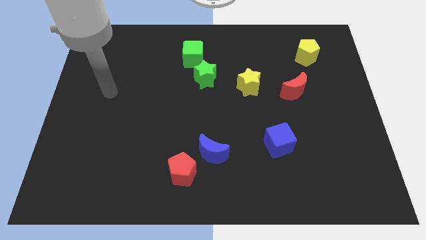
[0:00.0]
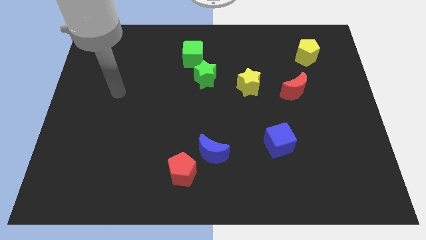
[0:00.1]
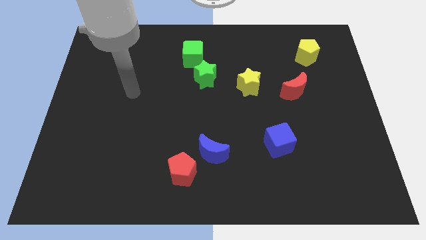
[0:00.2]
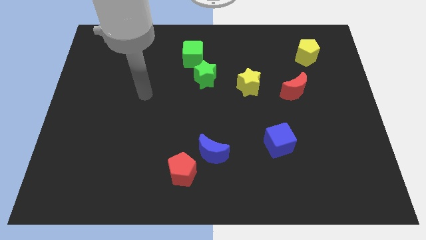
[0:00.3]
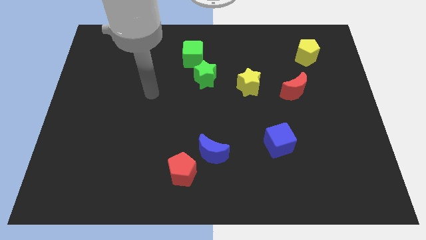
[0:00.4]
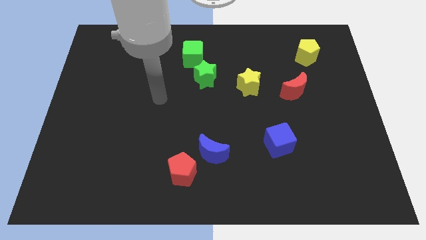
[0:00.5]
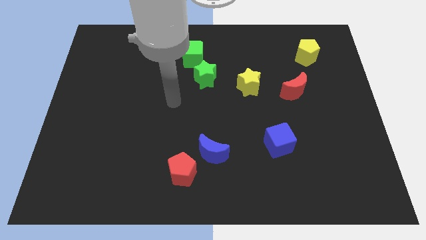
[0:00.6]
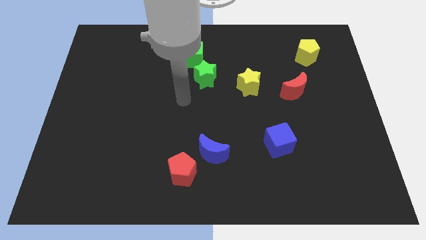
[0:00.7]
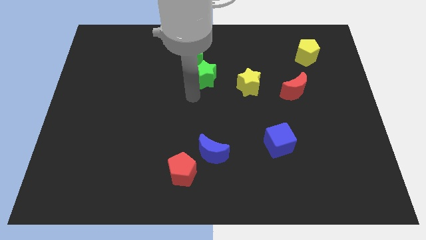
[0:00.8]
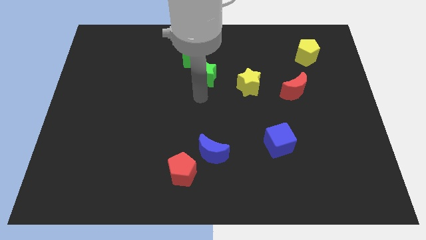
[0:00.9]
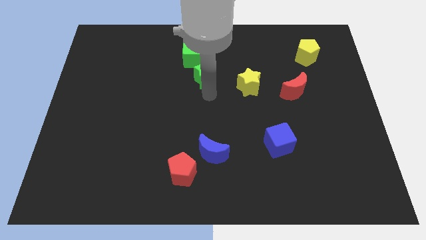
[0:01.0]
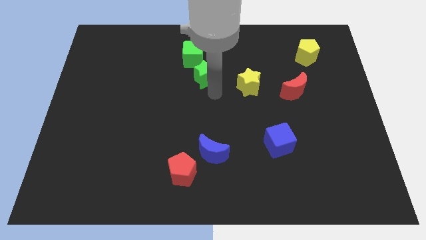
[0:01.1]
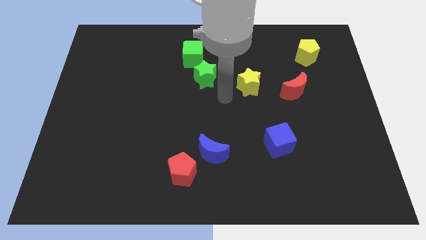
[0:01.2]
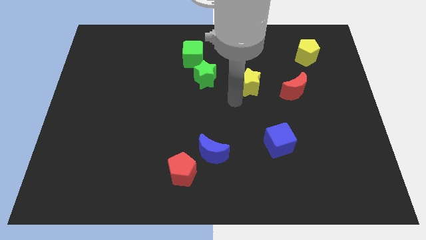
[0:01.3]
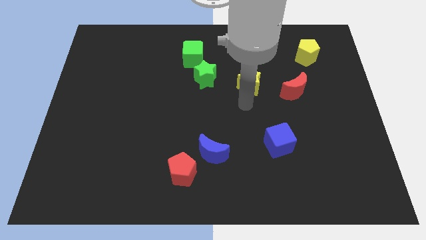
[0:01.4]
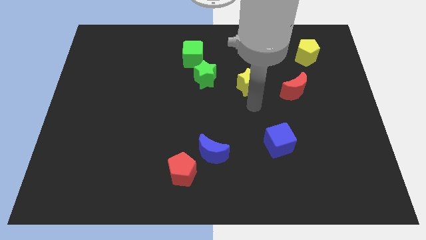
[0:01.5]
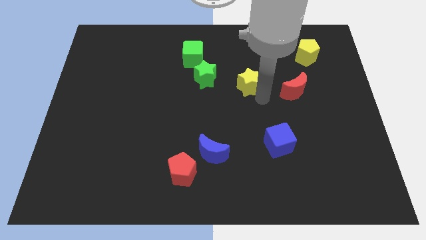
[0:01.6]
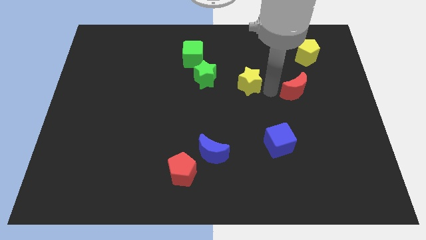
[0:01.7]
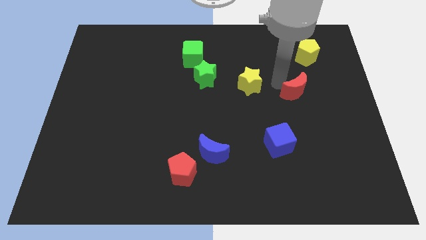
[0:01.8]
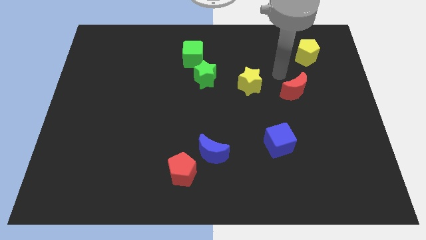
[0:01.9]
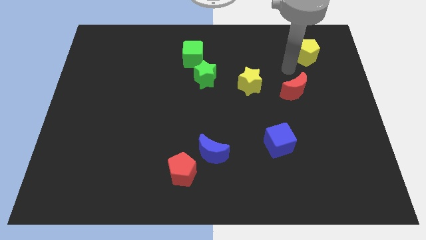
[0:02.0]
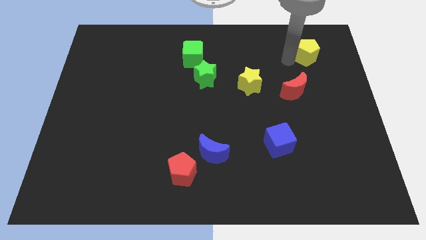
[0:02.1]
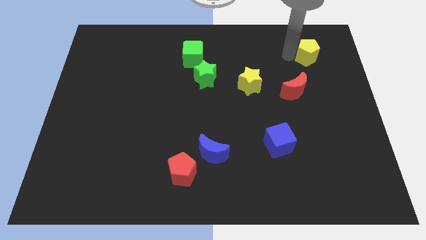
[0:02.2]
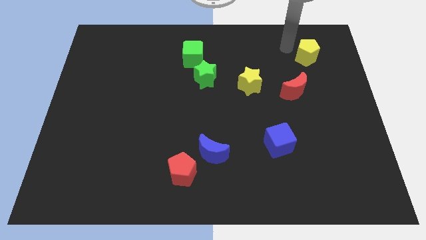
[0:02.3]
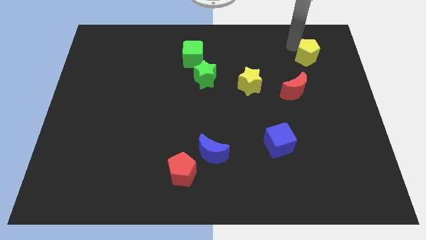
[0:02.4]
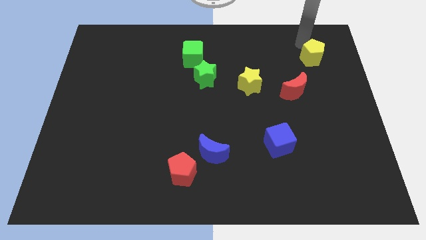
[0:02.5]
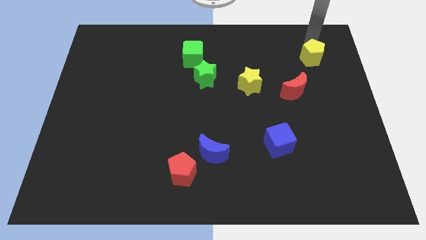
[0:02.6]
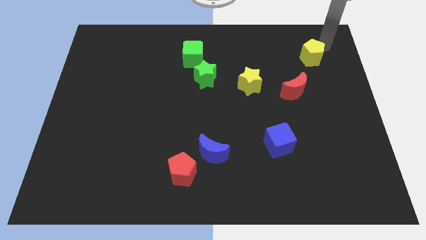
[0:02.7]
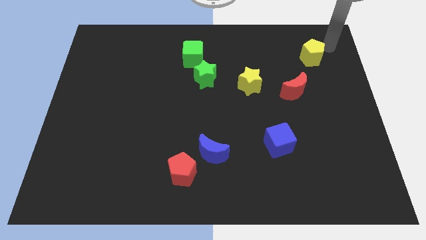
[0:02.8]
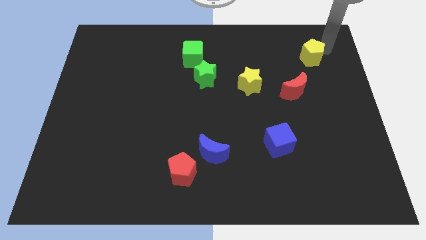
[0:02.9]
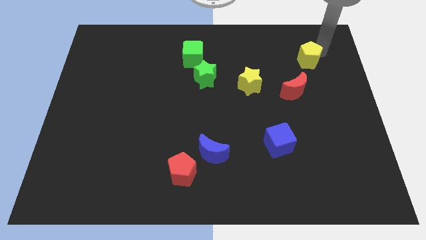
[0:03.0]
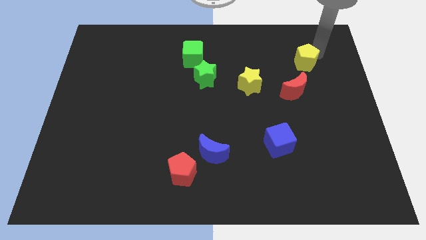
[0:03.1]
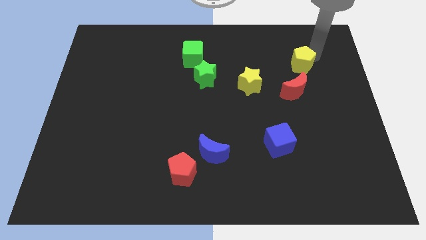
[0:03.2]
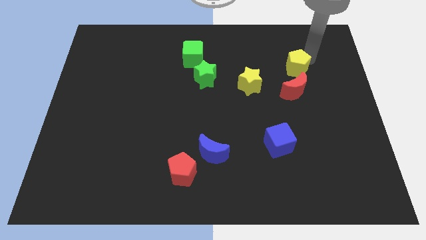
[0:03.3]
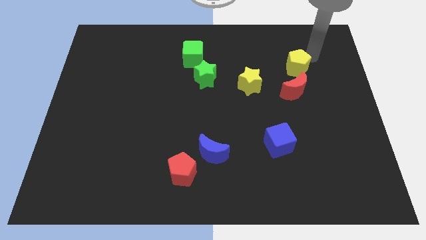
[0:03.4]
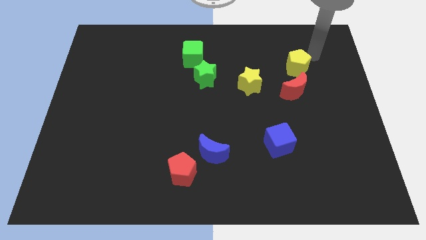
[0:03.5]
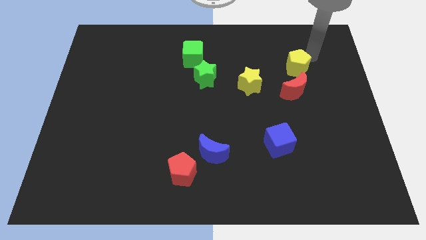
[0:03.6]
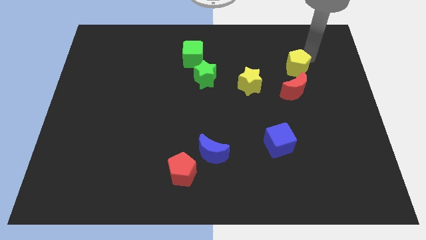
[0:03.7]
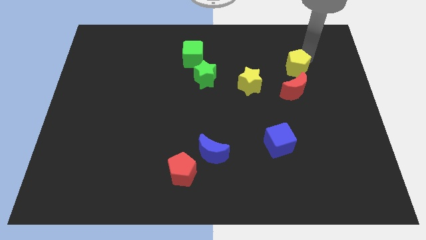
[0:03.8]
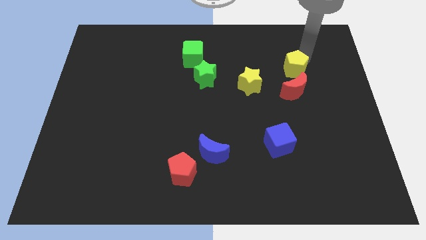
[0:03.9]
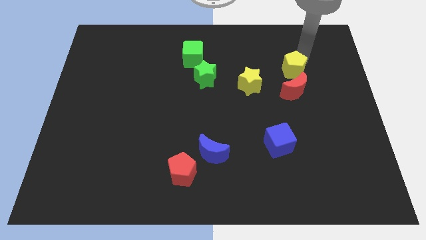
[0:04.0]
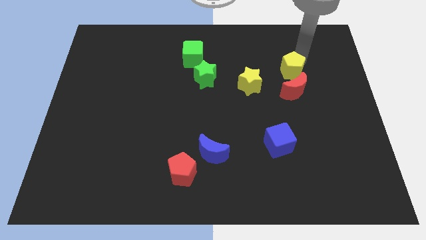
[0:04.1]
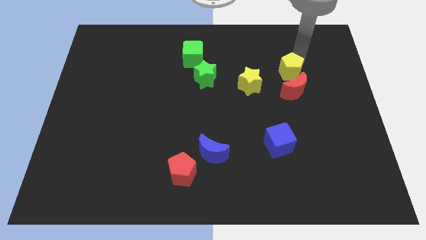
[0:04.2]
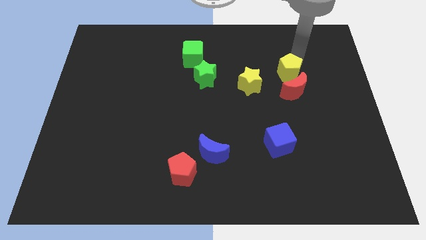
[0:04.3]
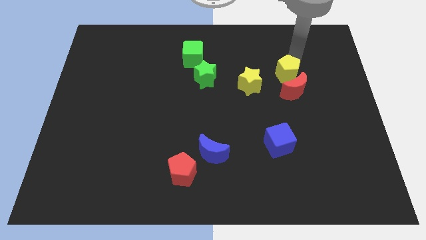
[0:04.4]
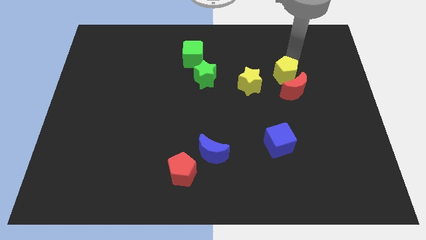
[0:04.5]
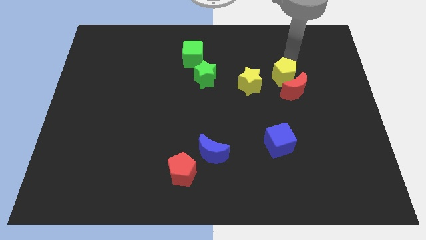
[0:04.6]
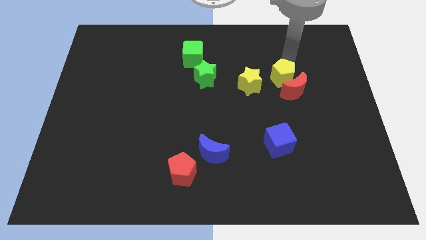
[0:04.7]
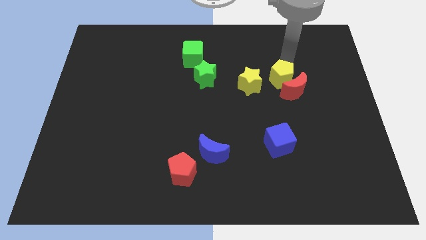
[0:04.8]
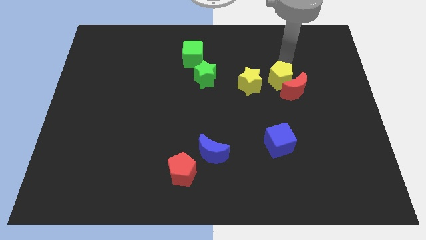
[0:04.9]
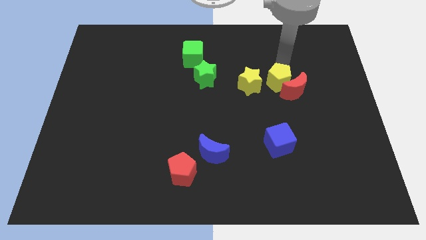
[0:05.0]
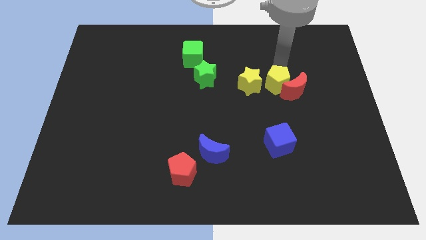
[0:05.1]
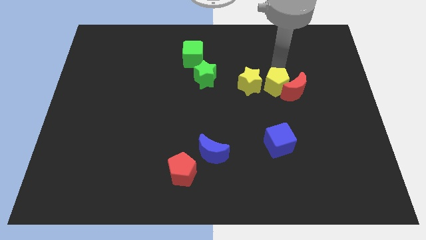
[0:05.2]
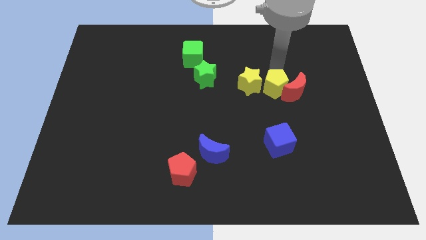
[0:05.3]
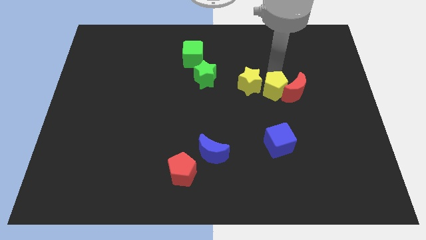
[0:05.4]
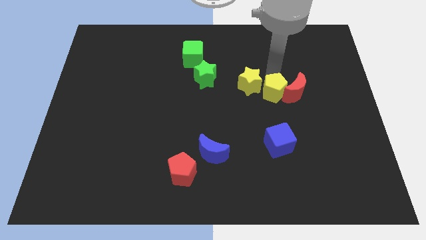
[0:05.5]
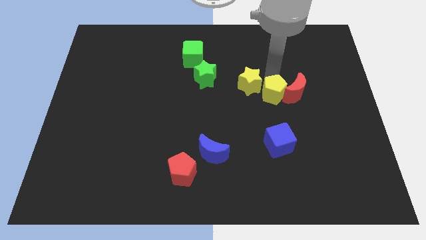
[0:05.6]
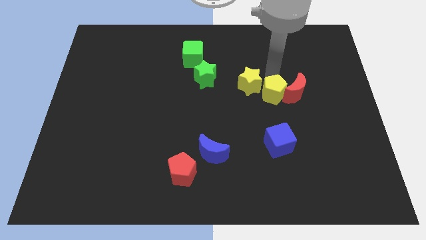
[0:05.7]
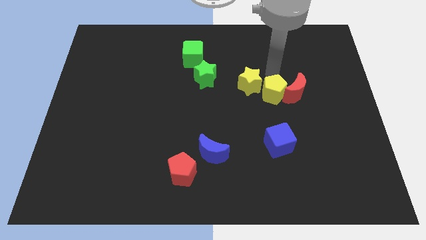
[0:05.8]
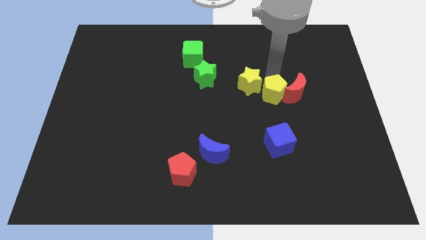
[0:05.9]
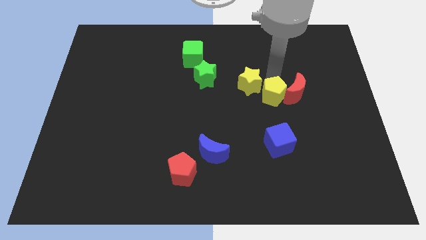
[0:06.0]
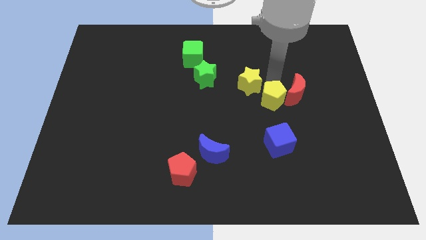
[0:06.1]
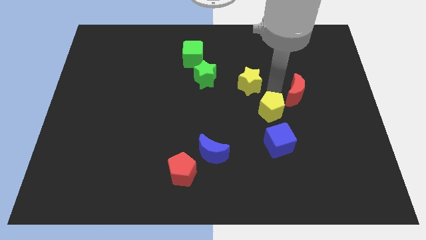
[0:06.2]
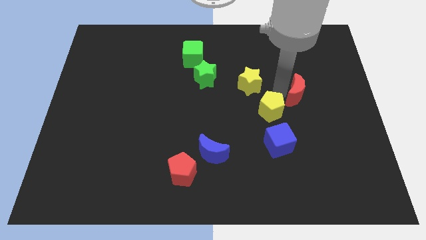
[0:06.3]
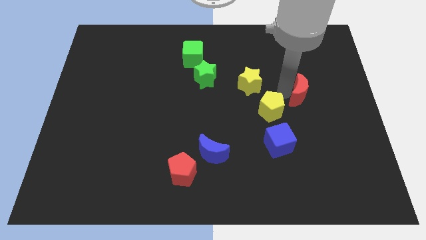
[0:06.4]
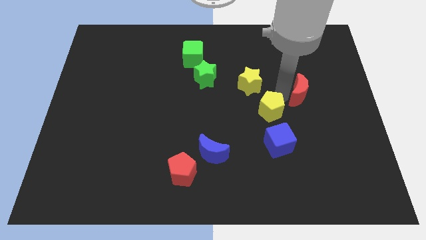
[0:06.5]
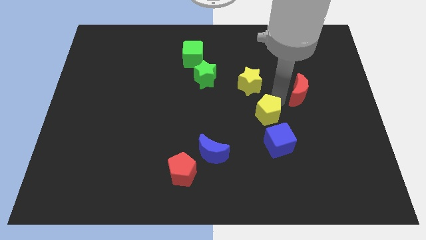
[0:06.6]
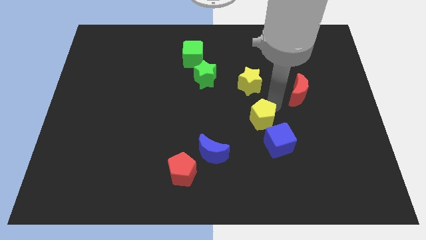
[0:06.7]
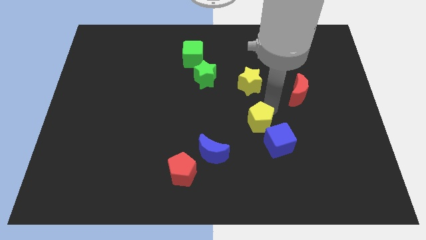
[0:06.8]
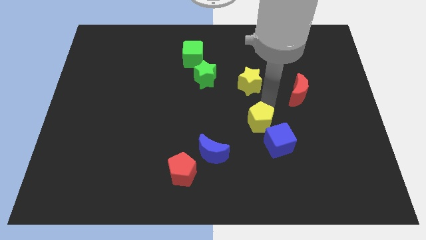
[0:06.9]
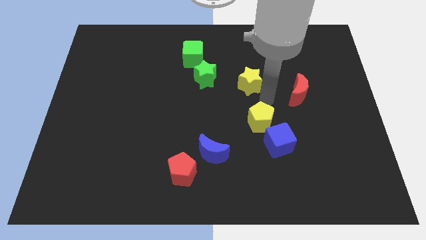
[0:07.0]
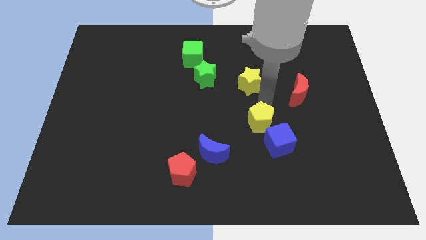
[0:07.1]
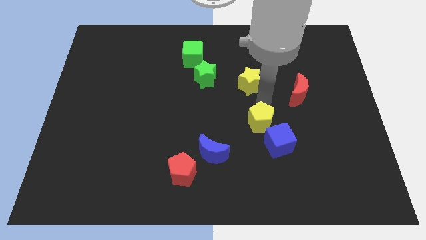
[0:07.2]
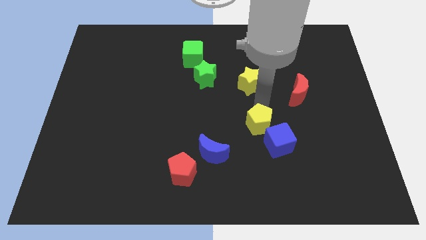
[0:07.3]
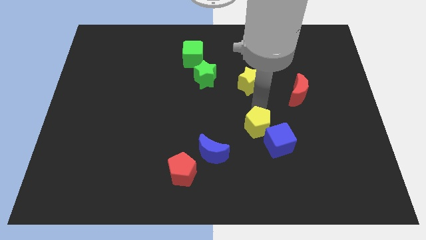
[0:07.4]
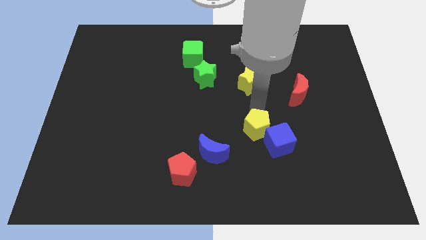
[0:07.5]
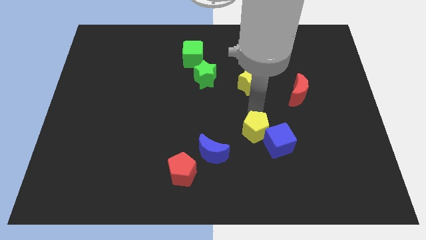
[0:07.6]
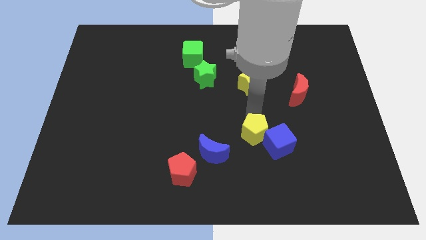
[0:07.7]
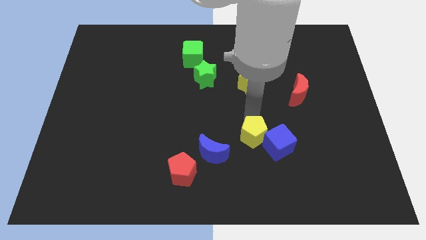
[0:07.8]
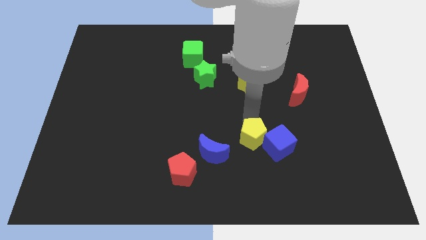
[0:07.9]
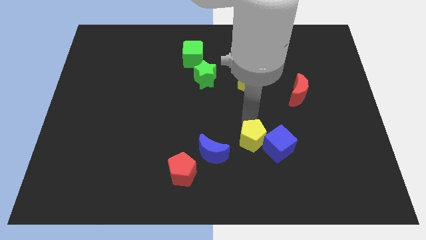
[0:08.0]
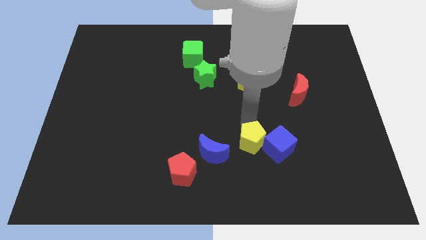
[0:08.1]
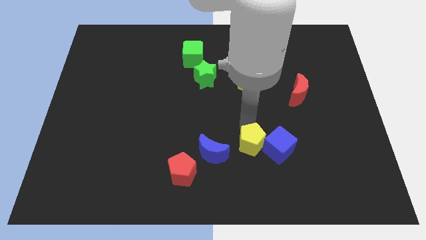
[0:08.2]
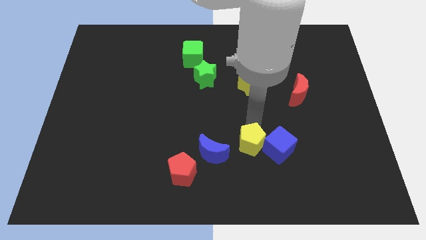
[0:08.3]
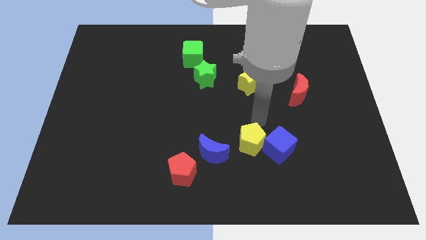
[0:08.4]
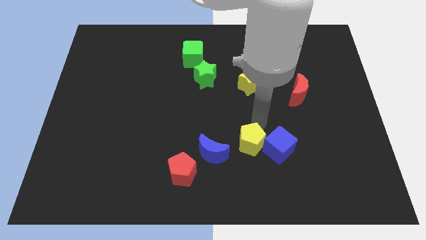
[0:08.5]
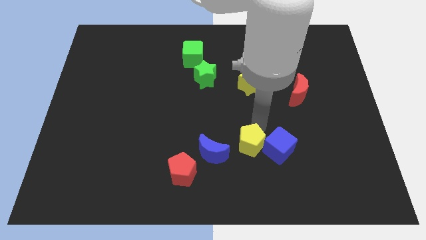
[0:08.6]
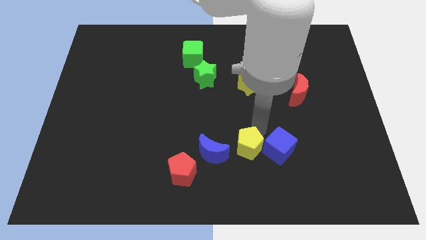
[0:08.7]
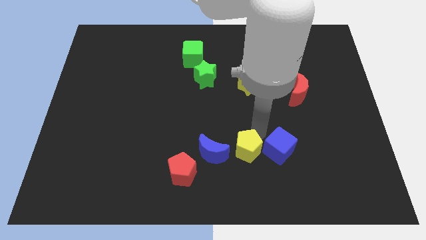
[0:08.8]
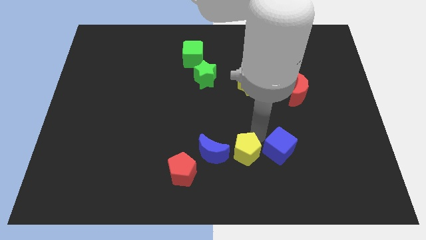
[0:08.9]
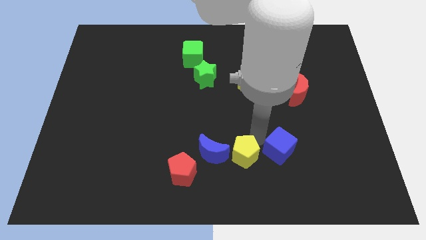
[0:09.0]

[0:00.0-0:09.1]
slide the yellow pentagon to the bottom right of the blue moon
